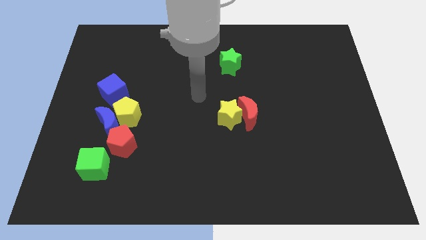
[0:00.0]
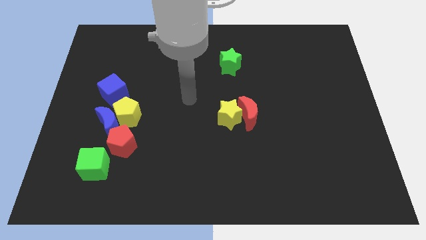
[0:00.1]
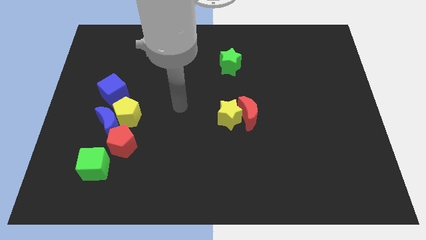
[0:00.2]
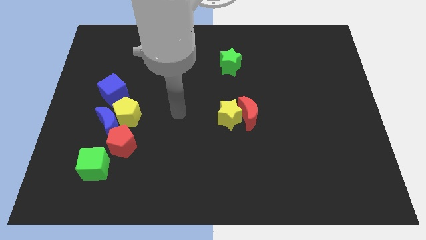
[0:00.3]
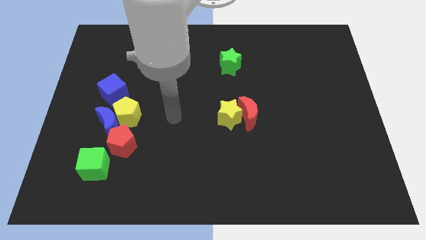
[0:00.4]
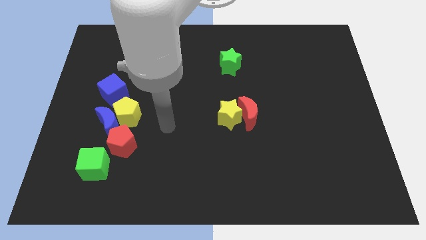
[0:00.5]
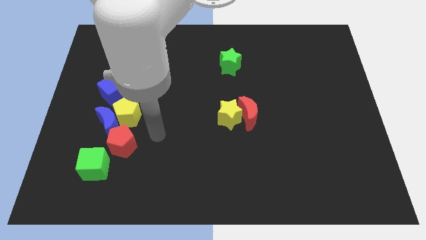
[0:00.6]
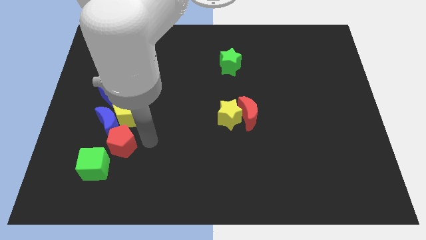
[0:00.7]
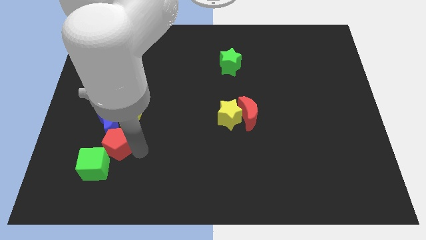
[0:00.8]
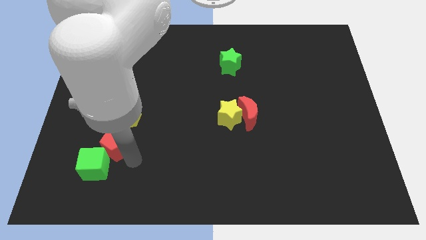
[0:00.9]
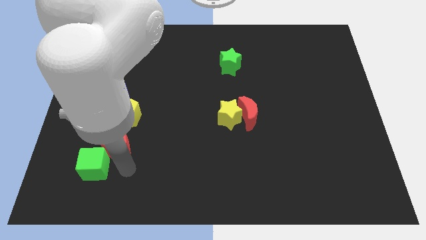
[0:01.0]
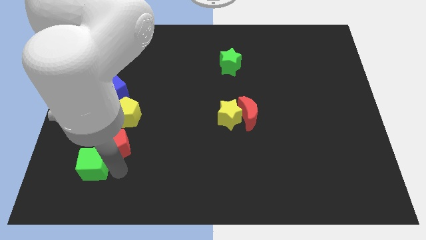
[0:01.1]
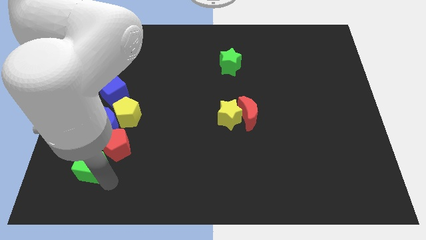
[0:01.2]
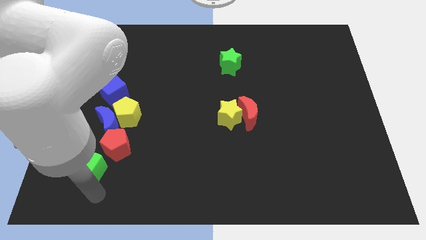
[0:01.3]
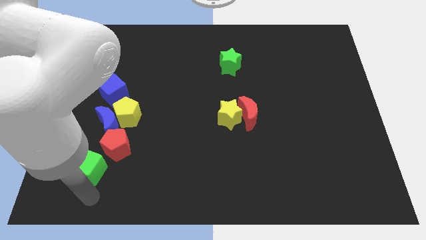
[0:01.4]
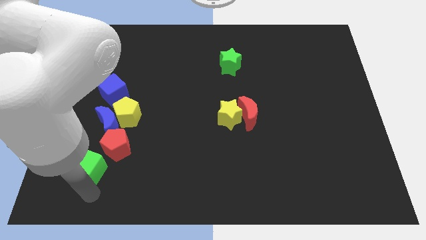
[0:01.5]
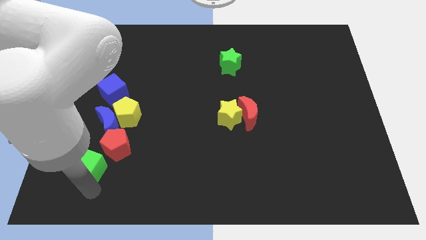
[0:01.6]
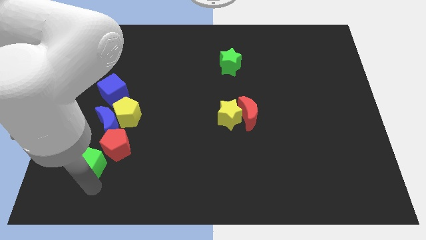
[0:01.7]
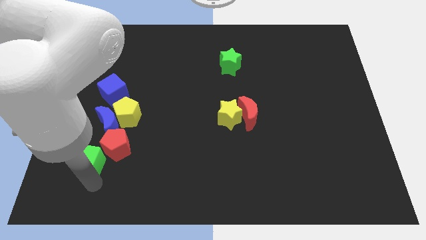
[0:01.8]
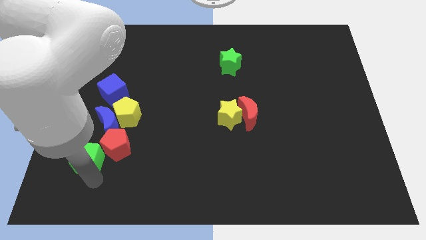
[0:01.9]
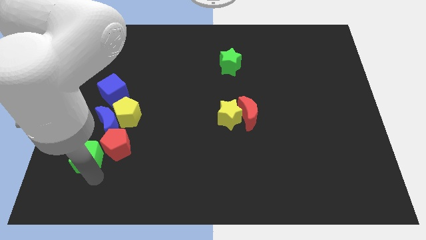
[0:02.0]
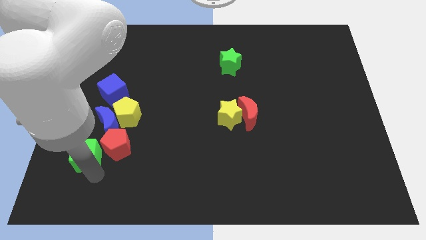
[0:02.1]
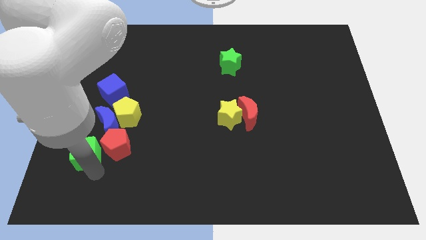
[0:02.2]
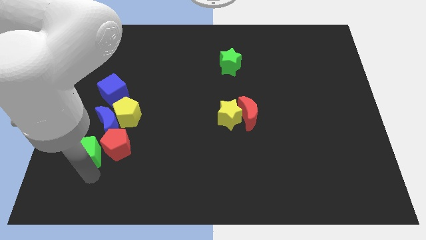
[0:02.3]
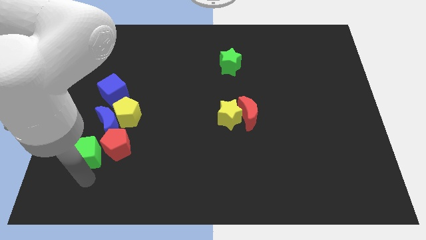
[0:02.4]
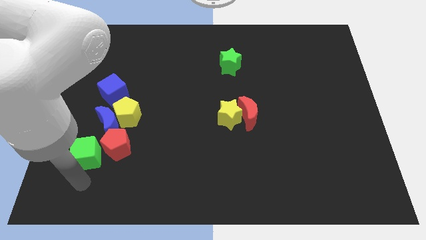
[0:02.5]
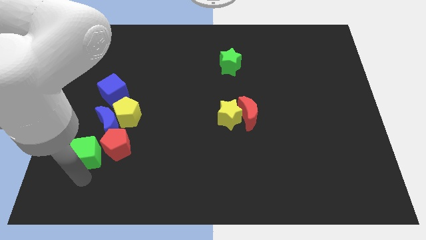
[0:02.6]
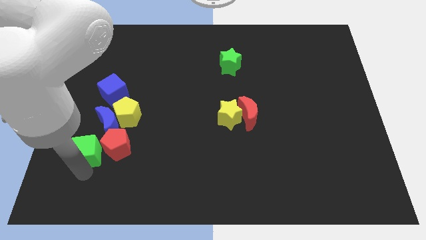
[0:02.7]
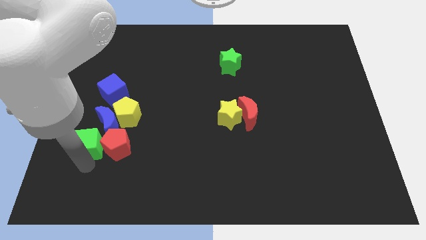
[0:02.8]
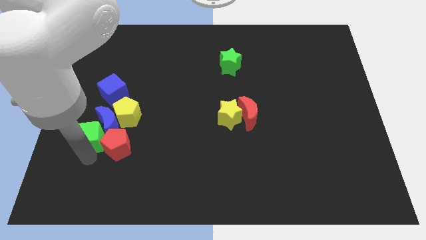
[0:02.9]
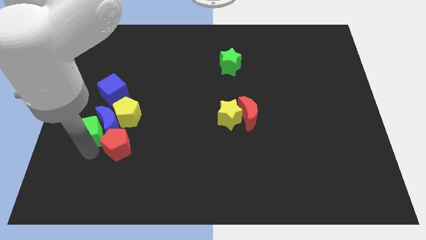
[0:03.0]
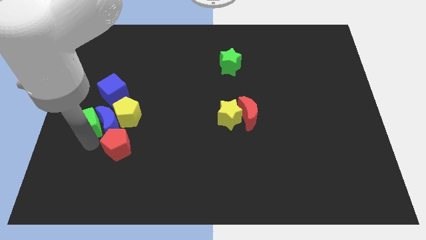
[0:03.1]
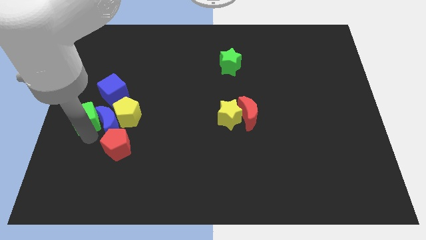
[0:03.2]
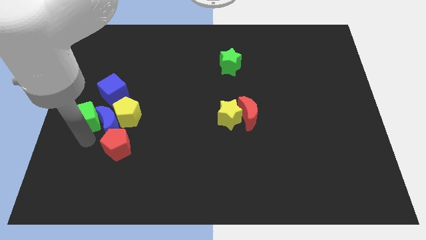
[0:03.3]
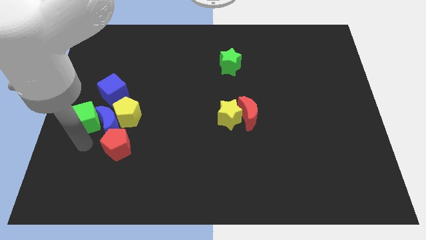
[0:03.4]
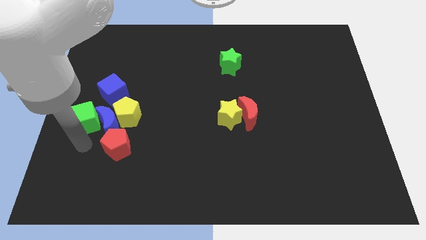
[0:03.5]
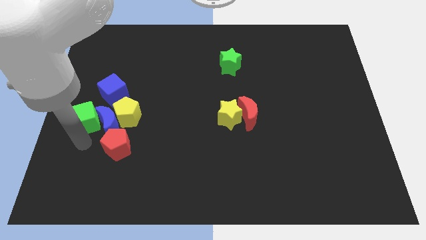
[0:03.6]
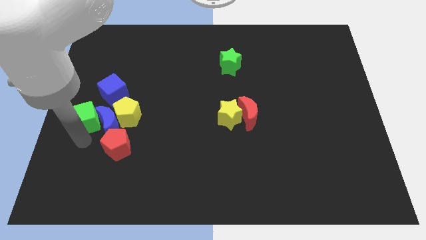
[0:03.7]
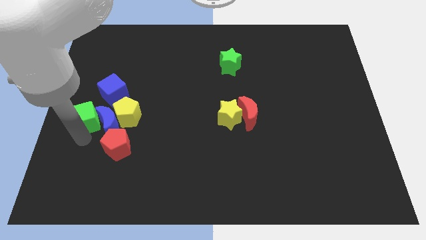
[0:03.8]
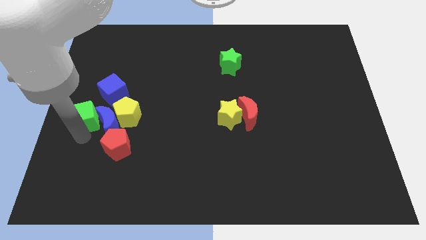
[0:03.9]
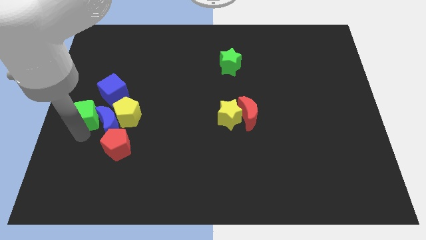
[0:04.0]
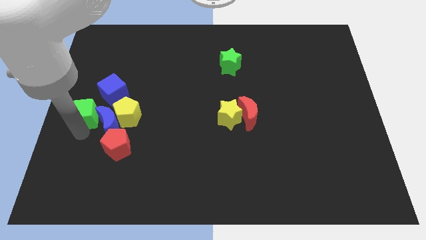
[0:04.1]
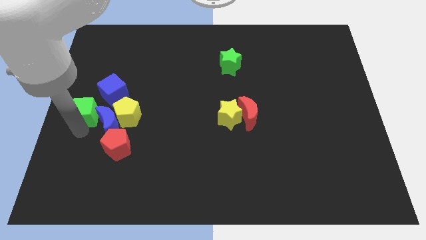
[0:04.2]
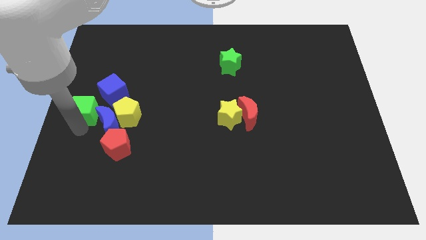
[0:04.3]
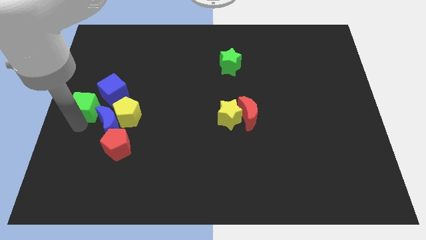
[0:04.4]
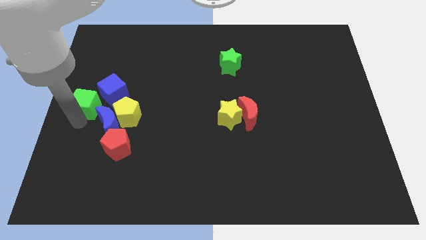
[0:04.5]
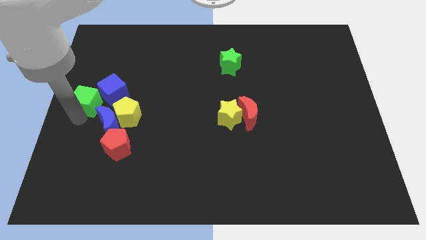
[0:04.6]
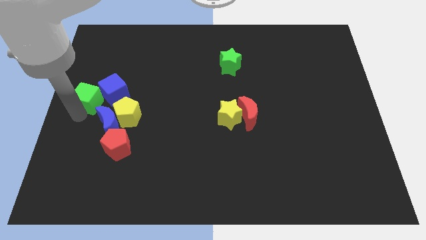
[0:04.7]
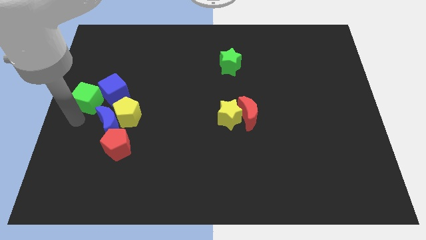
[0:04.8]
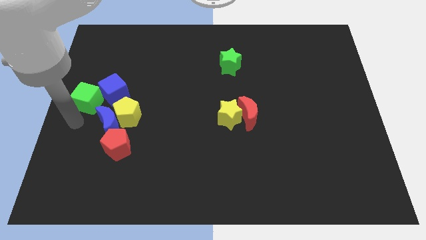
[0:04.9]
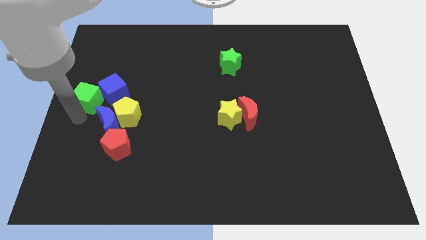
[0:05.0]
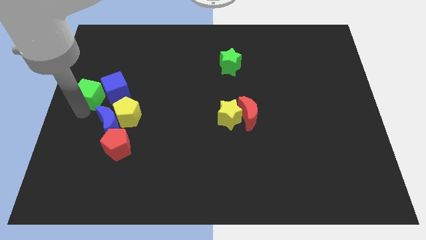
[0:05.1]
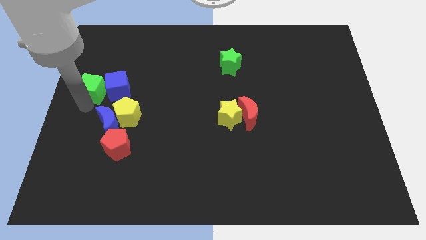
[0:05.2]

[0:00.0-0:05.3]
push the green cube up

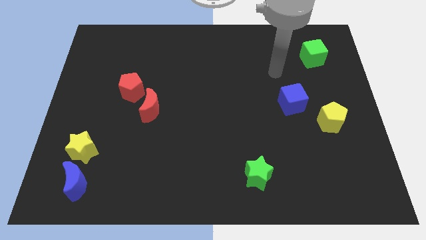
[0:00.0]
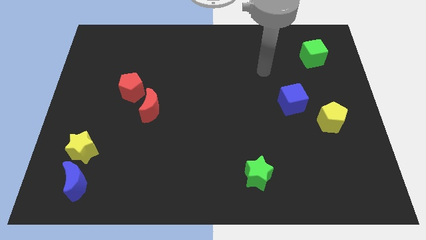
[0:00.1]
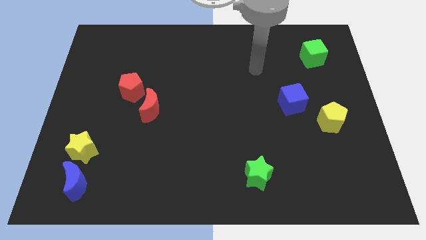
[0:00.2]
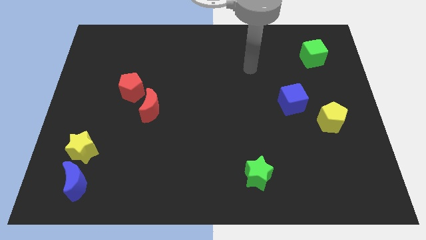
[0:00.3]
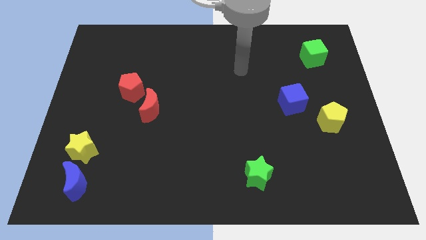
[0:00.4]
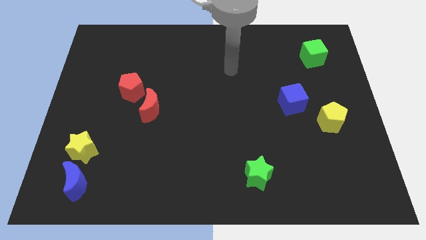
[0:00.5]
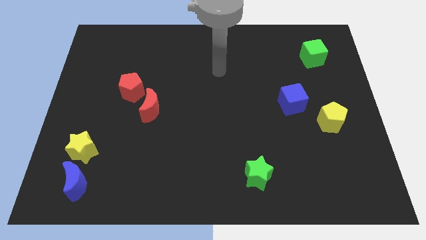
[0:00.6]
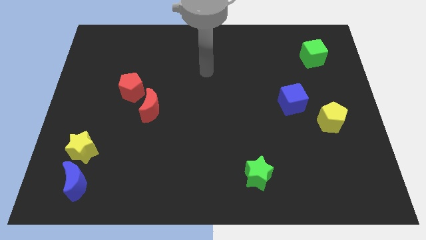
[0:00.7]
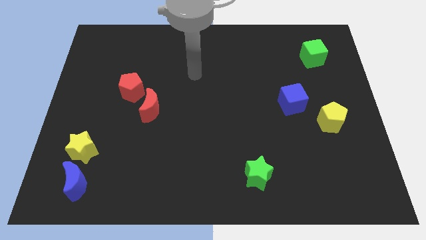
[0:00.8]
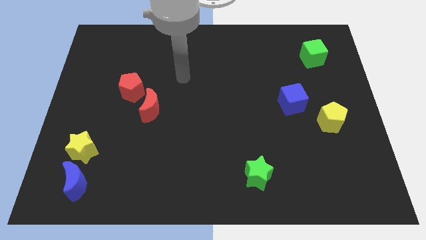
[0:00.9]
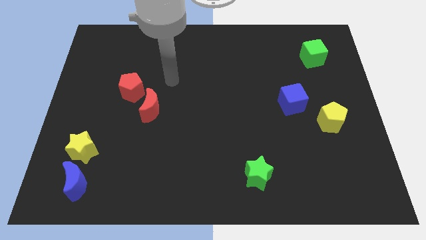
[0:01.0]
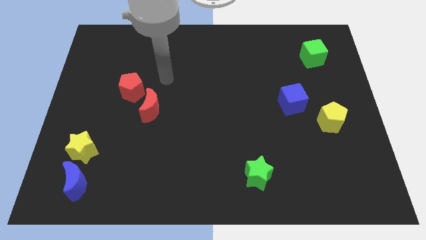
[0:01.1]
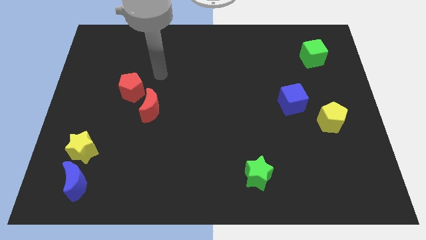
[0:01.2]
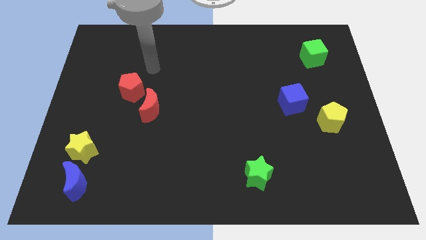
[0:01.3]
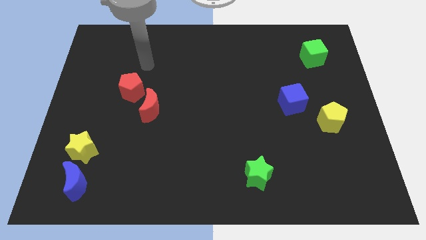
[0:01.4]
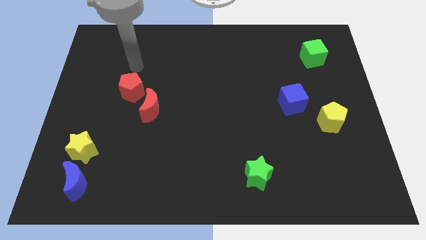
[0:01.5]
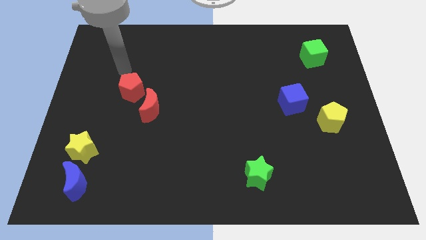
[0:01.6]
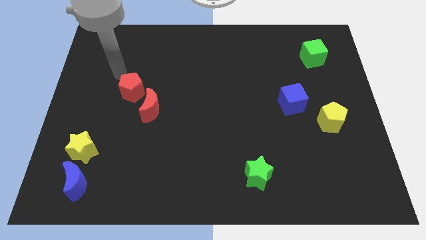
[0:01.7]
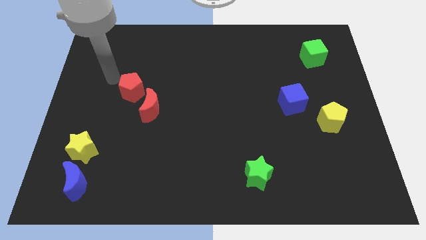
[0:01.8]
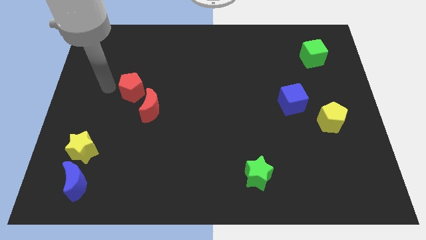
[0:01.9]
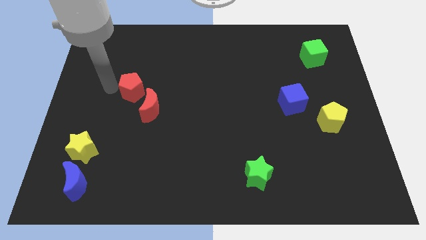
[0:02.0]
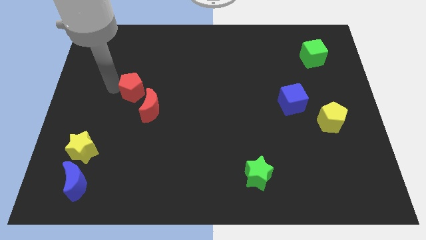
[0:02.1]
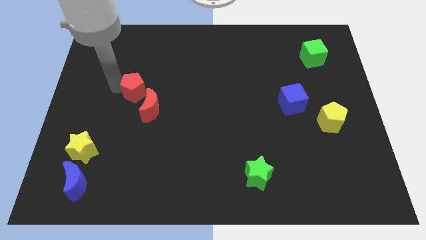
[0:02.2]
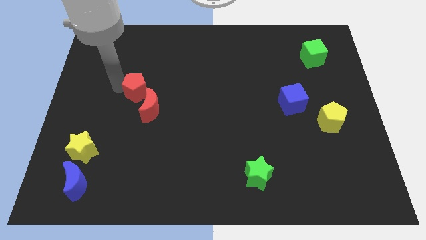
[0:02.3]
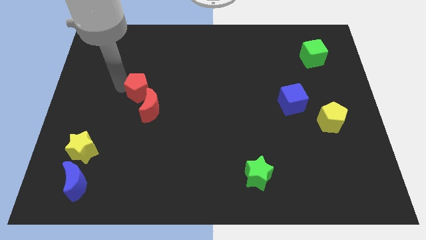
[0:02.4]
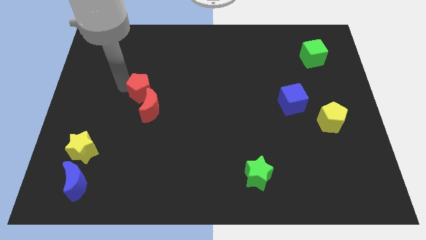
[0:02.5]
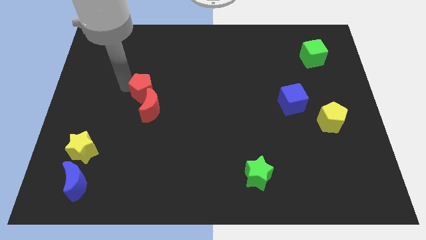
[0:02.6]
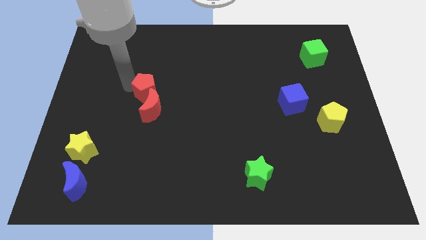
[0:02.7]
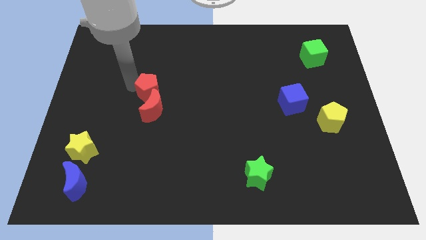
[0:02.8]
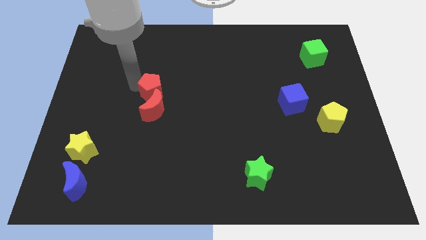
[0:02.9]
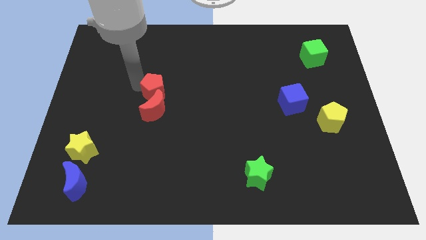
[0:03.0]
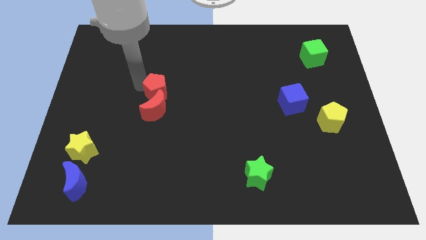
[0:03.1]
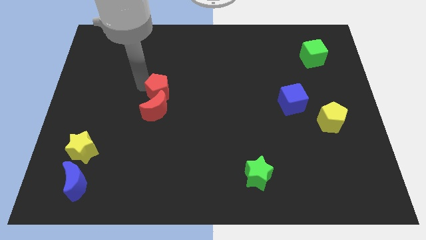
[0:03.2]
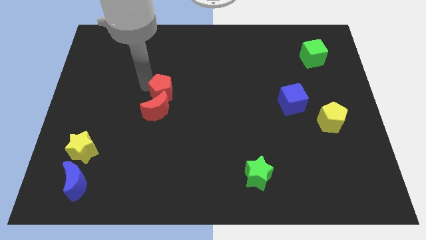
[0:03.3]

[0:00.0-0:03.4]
push the red pentagon right a bit
